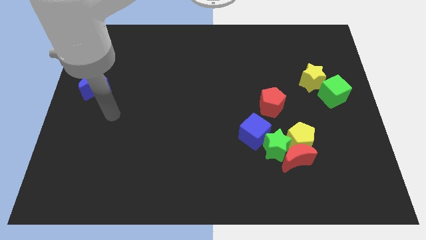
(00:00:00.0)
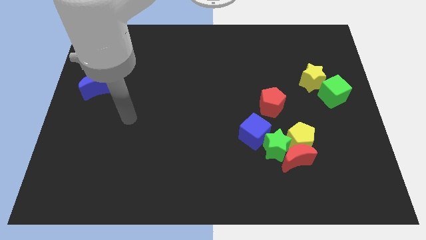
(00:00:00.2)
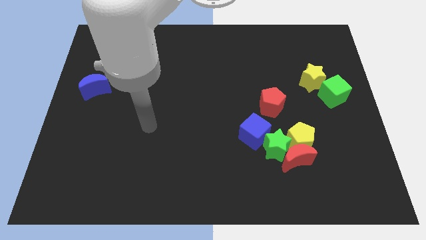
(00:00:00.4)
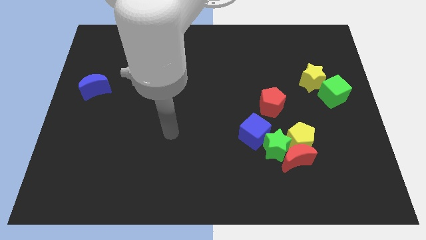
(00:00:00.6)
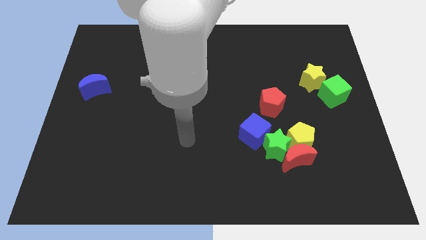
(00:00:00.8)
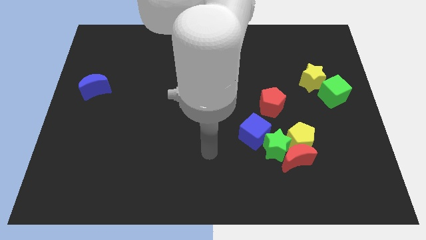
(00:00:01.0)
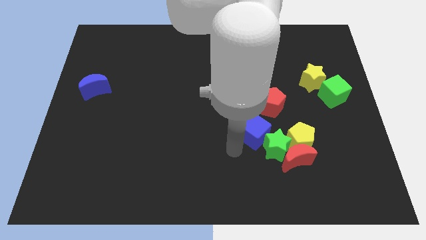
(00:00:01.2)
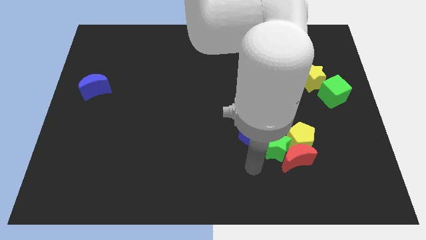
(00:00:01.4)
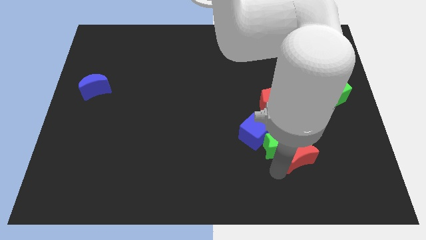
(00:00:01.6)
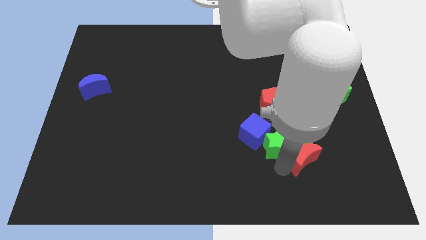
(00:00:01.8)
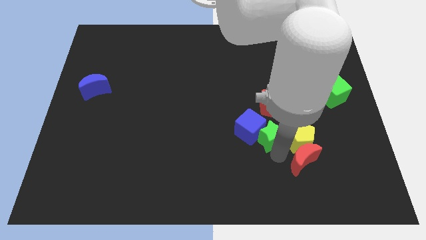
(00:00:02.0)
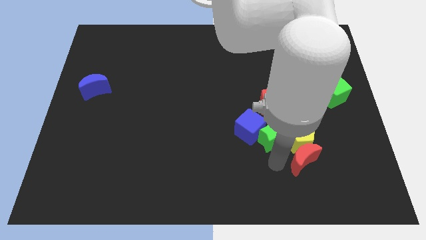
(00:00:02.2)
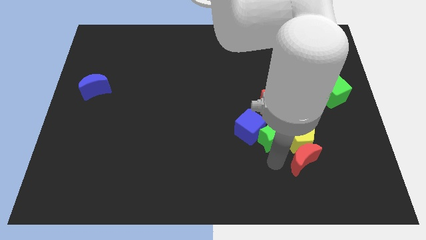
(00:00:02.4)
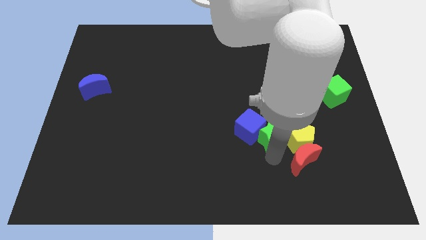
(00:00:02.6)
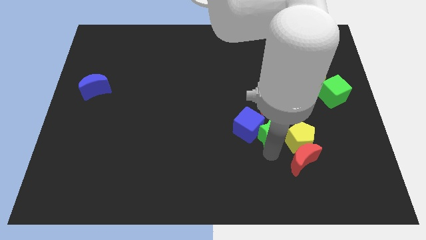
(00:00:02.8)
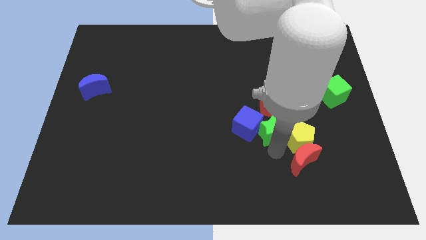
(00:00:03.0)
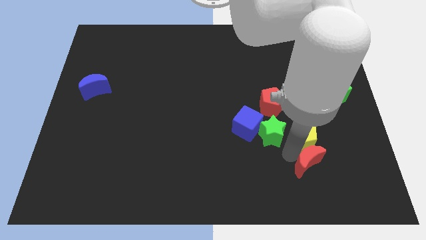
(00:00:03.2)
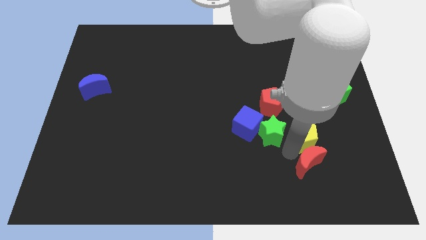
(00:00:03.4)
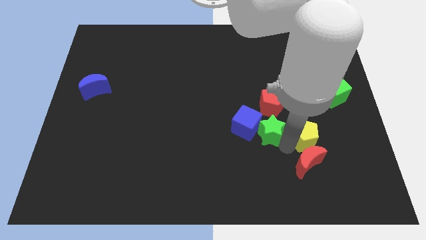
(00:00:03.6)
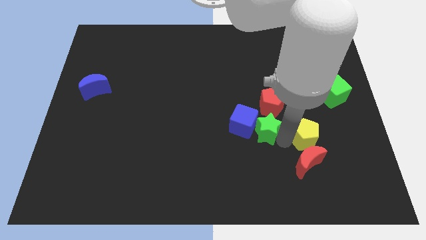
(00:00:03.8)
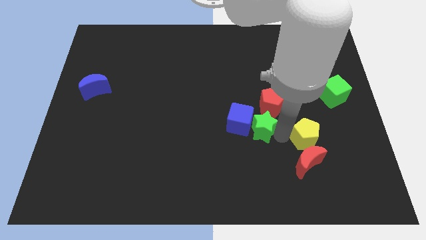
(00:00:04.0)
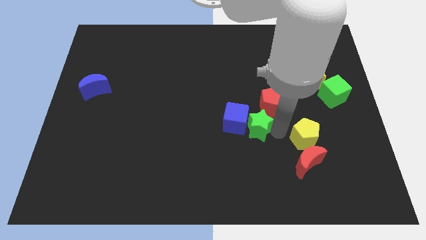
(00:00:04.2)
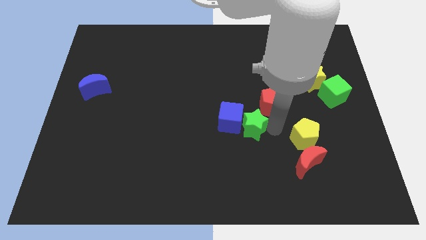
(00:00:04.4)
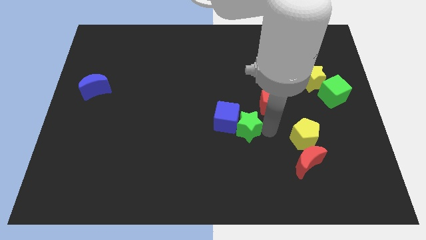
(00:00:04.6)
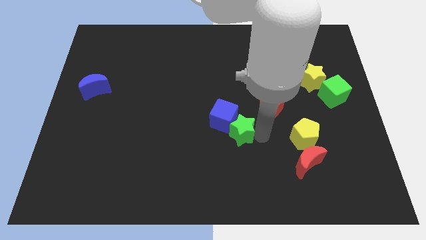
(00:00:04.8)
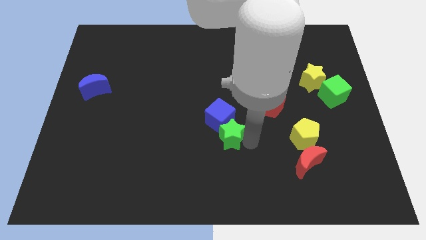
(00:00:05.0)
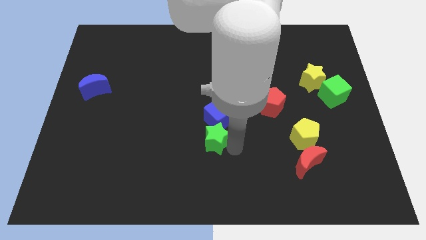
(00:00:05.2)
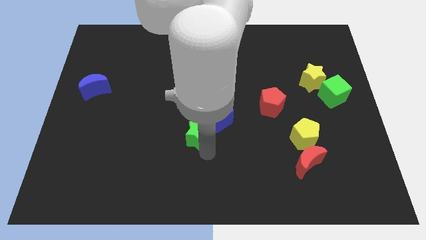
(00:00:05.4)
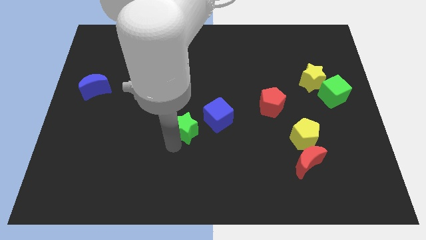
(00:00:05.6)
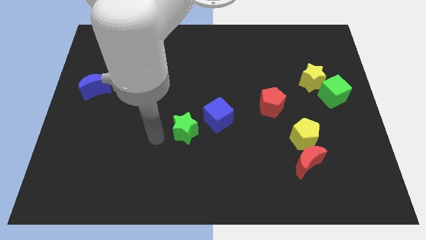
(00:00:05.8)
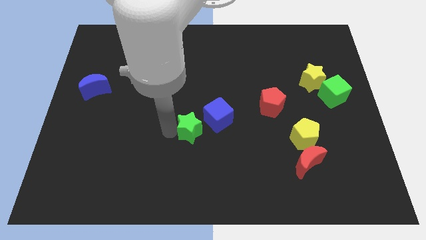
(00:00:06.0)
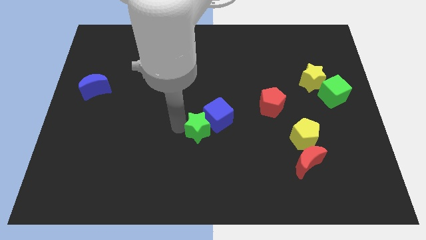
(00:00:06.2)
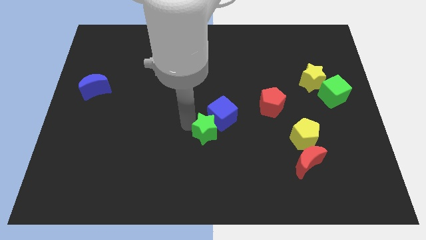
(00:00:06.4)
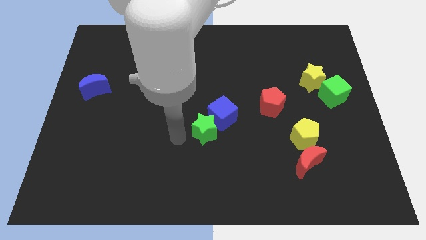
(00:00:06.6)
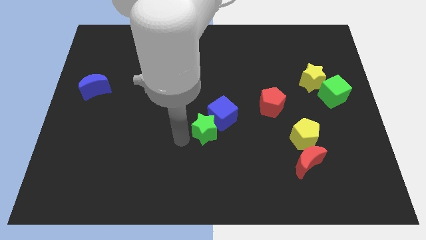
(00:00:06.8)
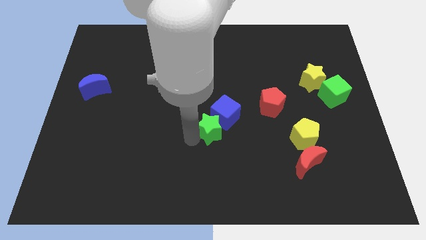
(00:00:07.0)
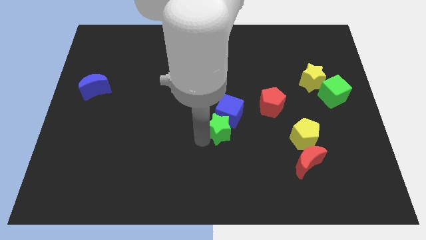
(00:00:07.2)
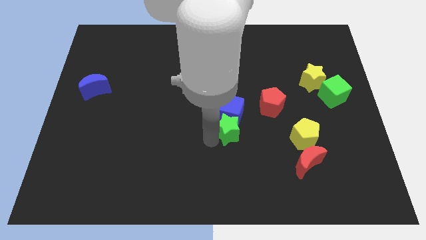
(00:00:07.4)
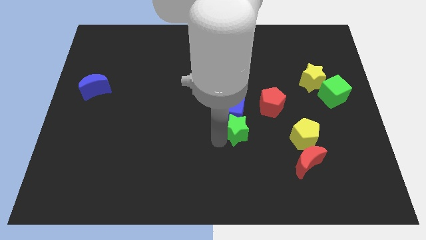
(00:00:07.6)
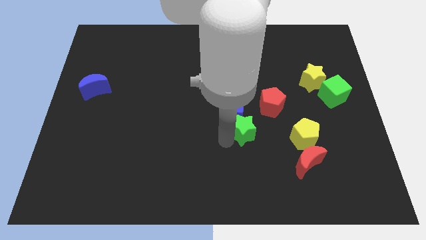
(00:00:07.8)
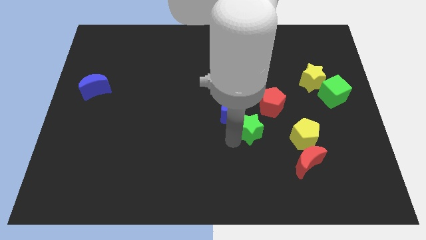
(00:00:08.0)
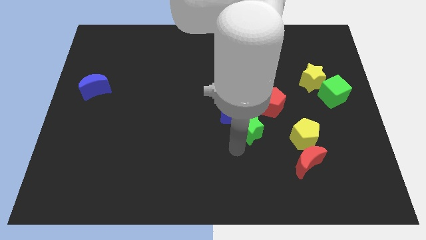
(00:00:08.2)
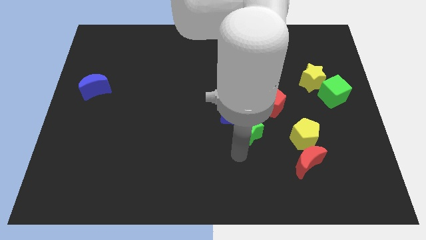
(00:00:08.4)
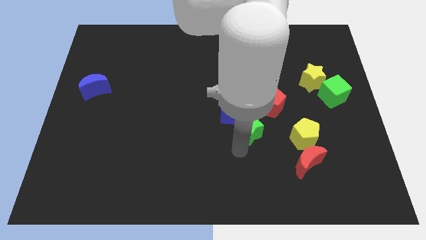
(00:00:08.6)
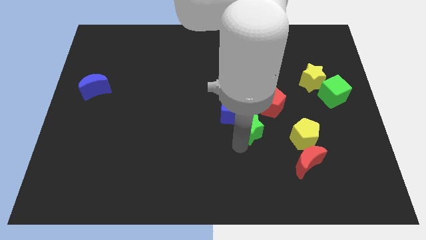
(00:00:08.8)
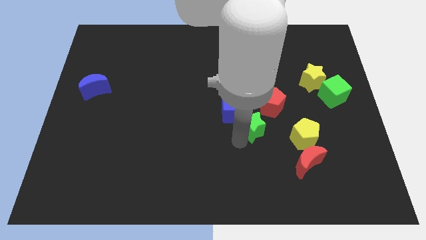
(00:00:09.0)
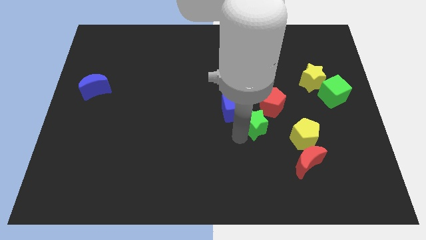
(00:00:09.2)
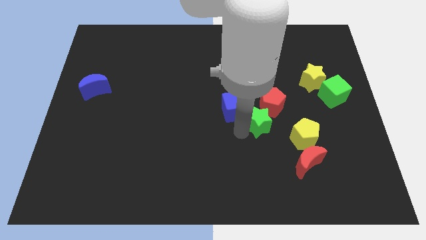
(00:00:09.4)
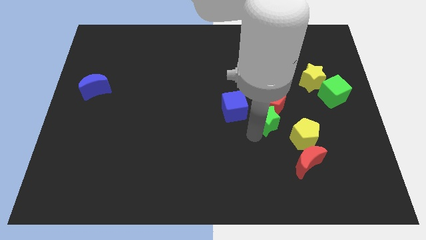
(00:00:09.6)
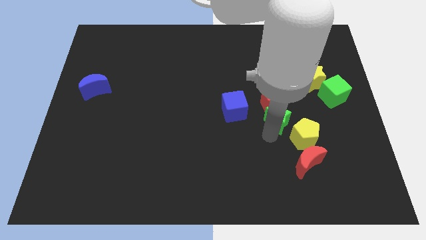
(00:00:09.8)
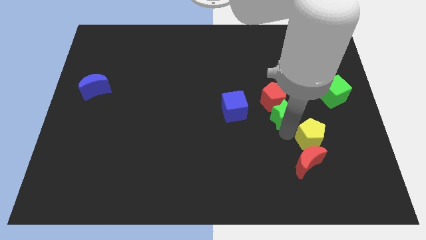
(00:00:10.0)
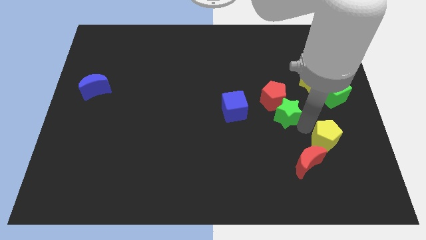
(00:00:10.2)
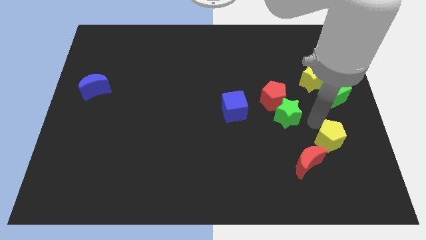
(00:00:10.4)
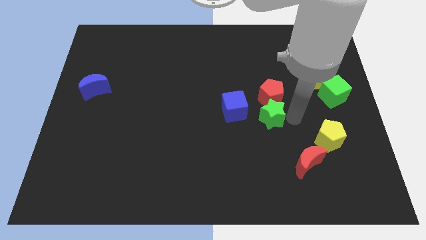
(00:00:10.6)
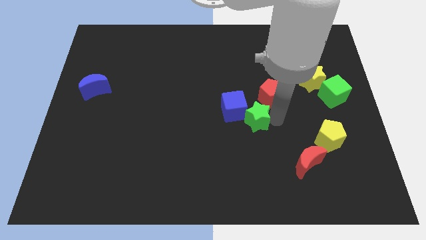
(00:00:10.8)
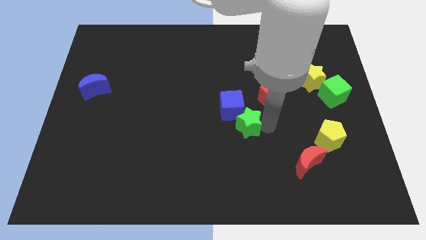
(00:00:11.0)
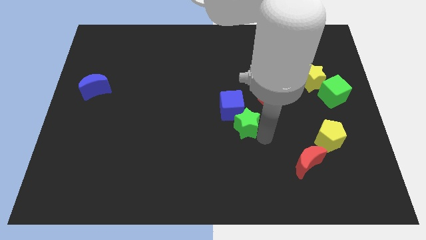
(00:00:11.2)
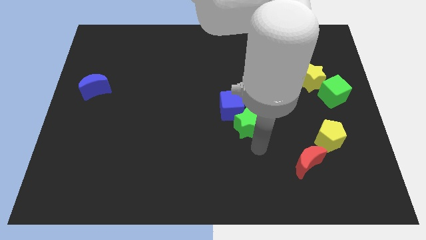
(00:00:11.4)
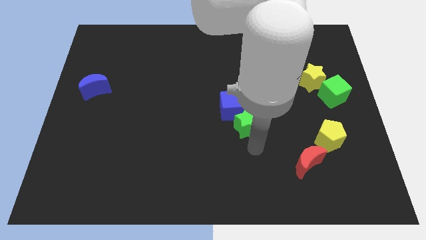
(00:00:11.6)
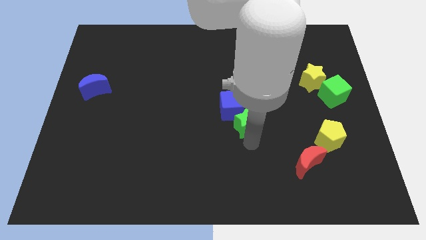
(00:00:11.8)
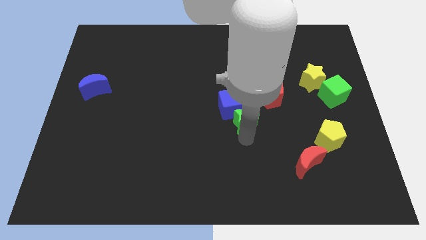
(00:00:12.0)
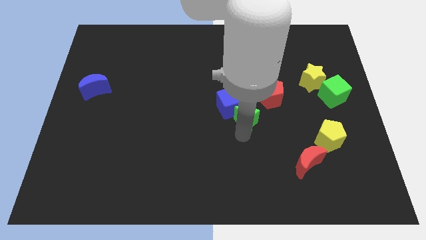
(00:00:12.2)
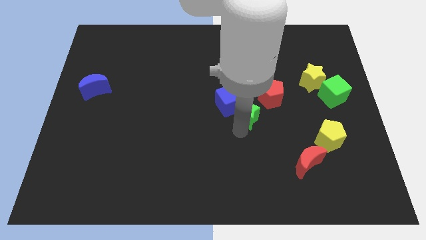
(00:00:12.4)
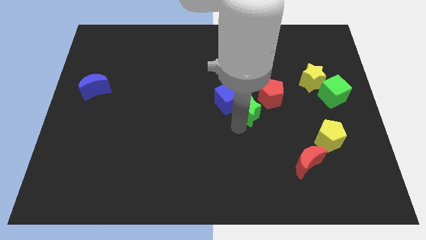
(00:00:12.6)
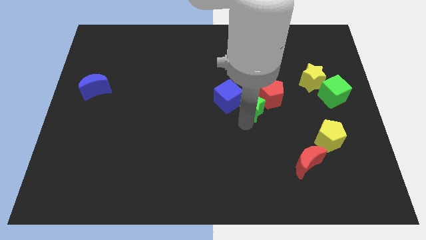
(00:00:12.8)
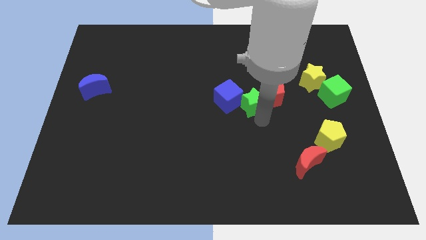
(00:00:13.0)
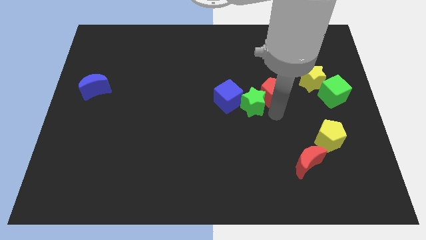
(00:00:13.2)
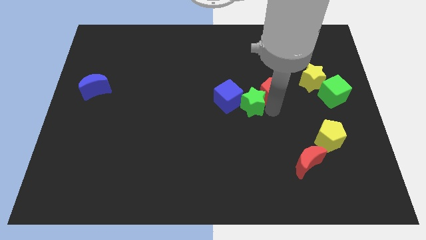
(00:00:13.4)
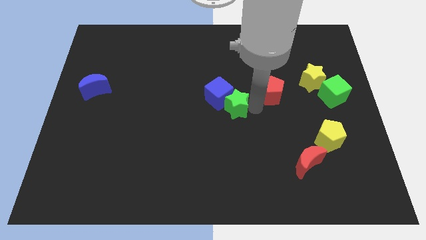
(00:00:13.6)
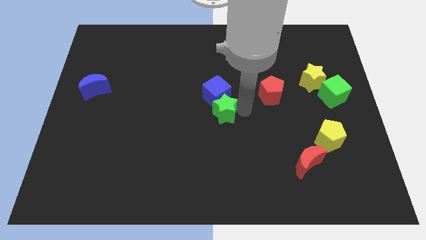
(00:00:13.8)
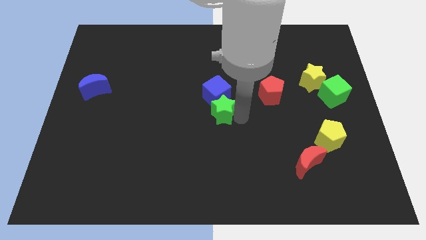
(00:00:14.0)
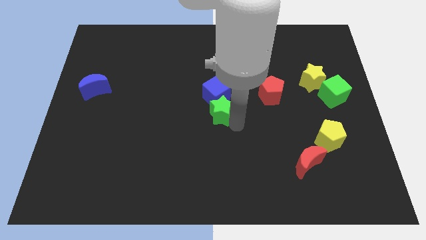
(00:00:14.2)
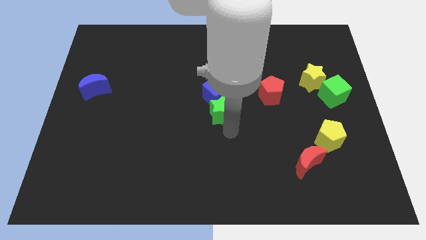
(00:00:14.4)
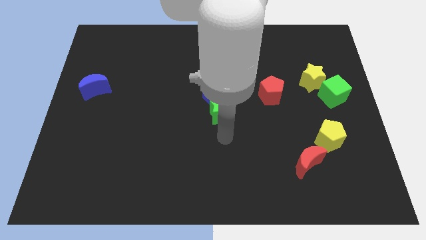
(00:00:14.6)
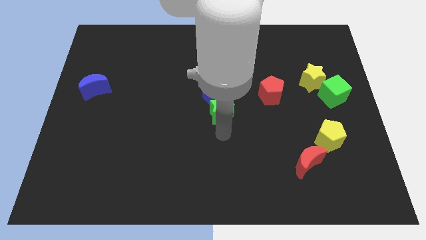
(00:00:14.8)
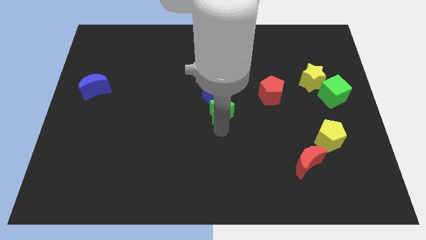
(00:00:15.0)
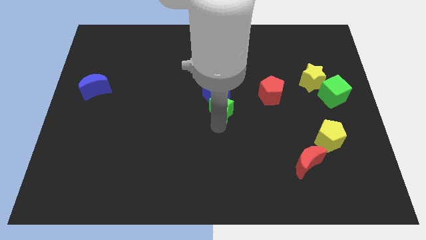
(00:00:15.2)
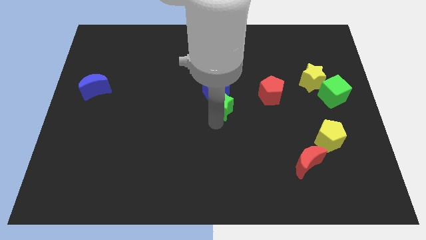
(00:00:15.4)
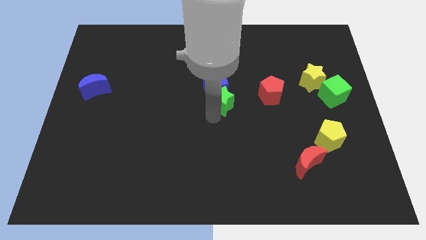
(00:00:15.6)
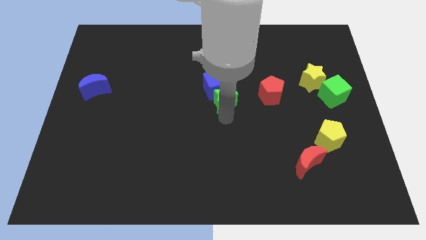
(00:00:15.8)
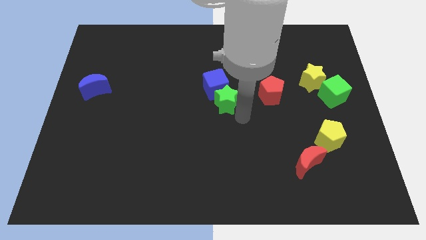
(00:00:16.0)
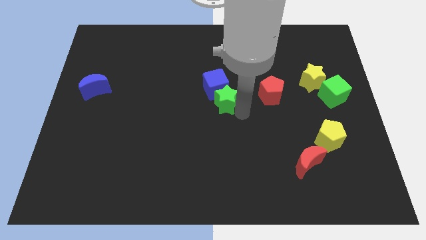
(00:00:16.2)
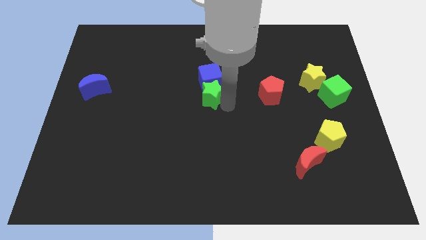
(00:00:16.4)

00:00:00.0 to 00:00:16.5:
move the green star upwards and left diagonally

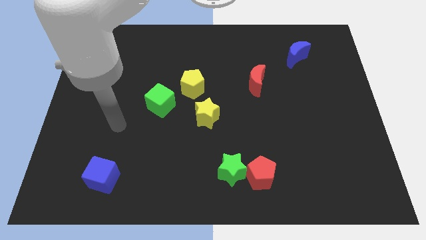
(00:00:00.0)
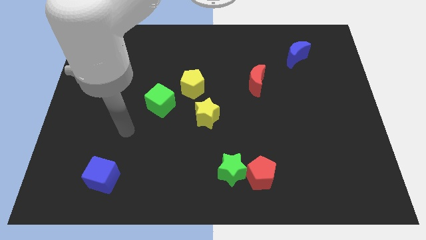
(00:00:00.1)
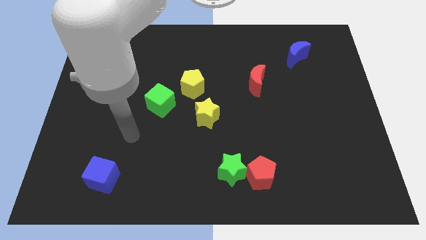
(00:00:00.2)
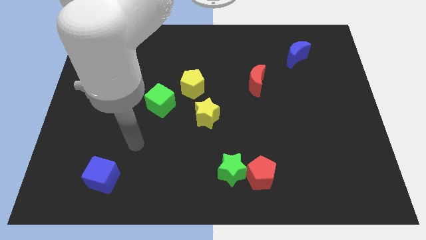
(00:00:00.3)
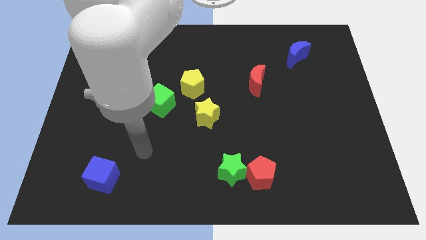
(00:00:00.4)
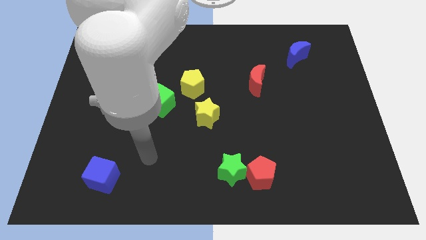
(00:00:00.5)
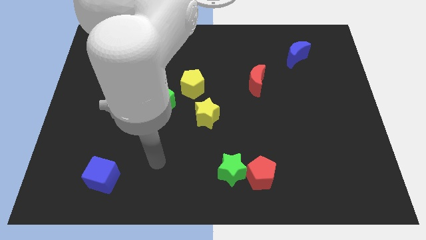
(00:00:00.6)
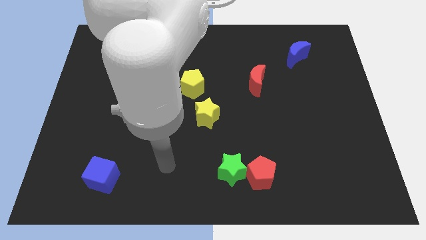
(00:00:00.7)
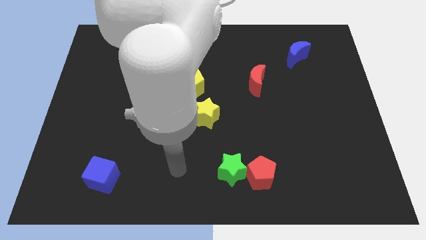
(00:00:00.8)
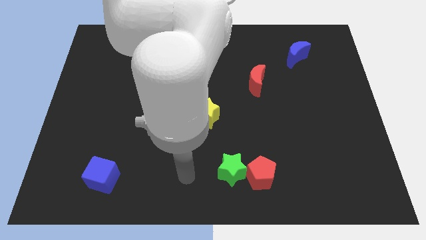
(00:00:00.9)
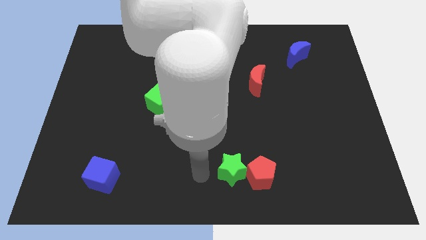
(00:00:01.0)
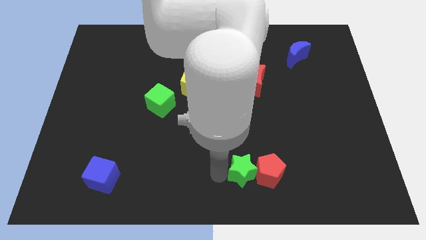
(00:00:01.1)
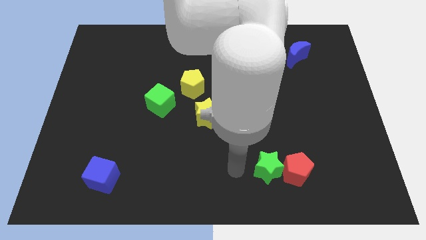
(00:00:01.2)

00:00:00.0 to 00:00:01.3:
slightly move the red pentagon to the right
